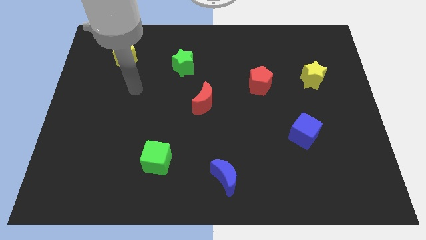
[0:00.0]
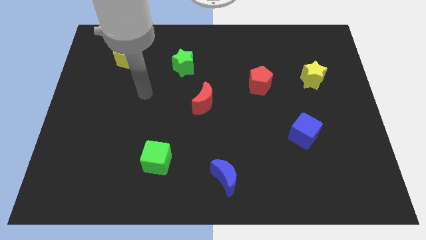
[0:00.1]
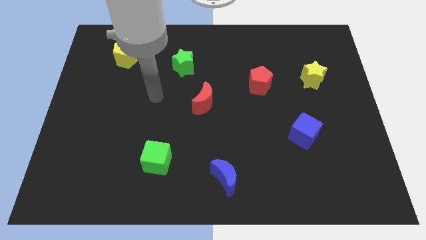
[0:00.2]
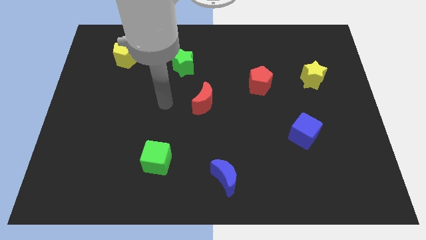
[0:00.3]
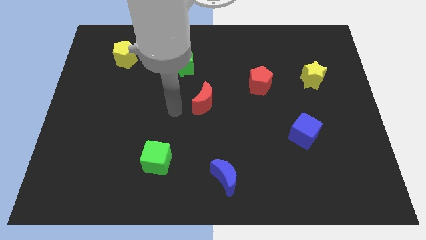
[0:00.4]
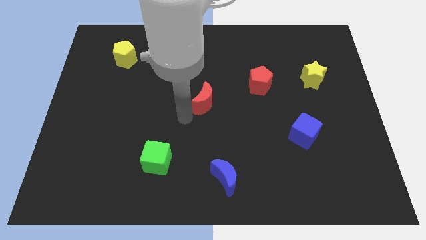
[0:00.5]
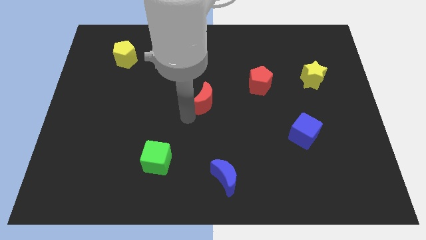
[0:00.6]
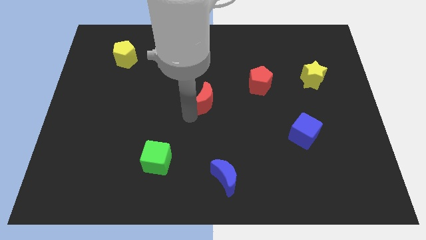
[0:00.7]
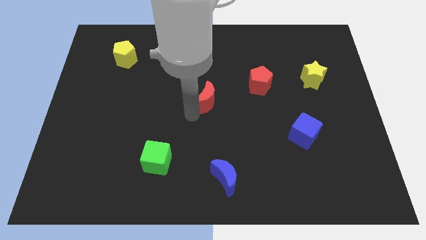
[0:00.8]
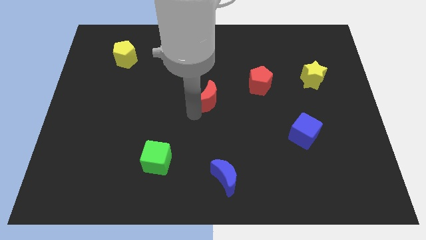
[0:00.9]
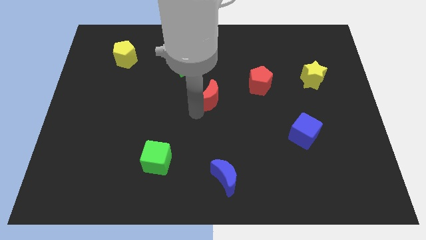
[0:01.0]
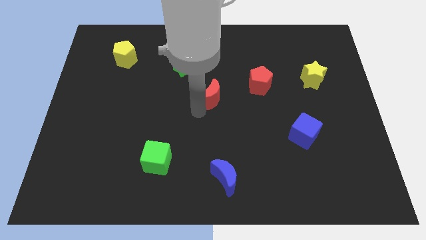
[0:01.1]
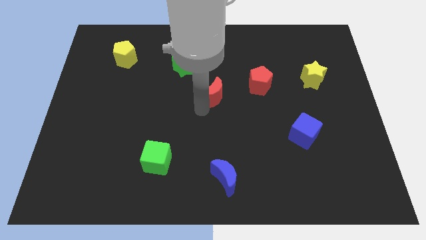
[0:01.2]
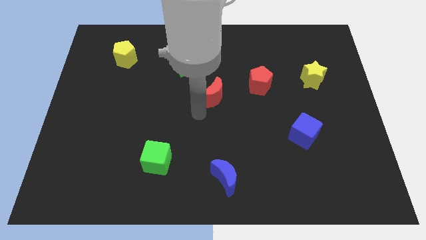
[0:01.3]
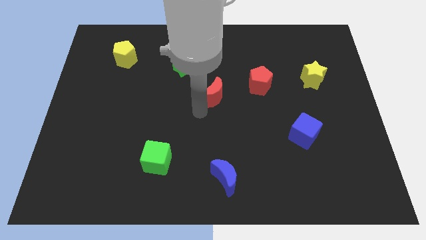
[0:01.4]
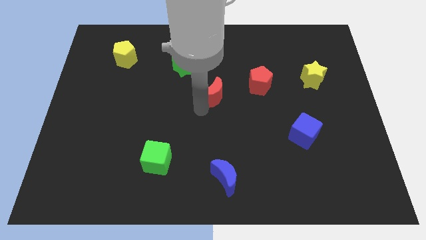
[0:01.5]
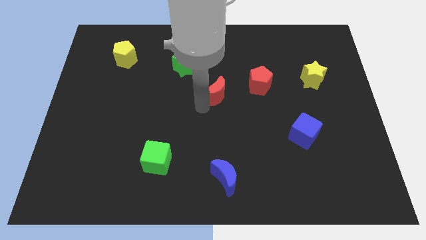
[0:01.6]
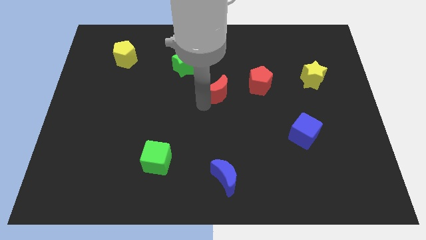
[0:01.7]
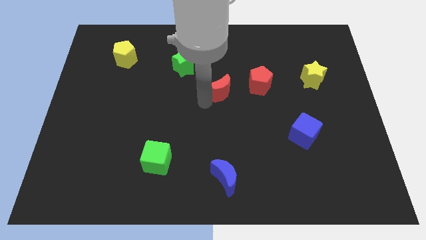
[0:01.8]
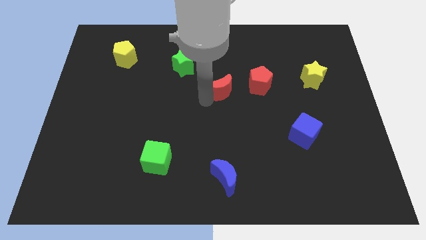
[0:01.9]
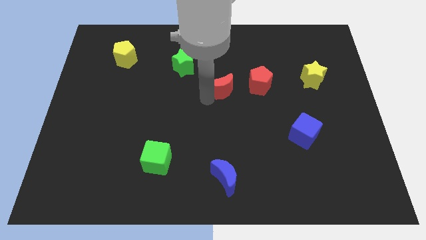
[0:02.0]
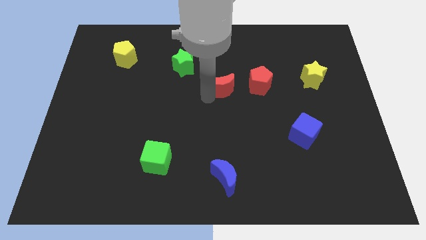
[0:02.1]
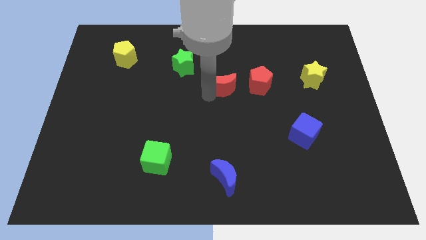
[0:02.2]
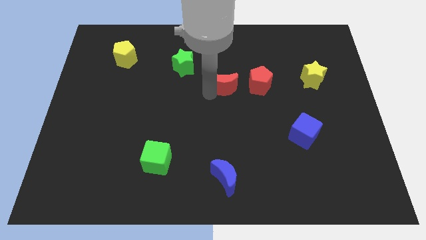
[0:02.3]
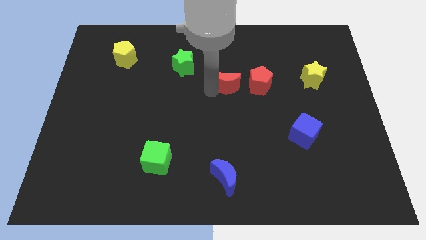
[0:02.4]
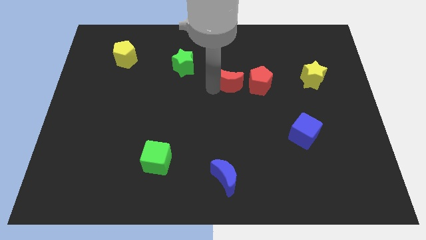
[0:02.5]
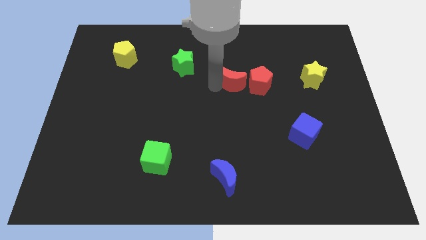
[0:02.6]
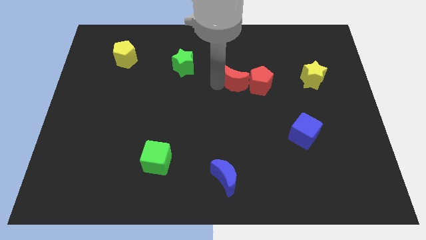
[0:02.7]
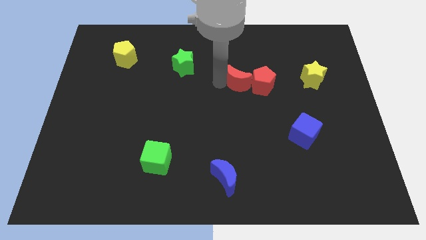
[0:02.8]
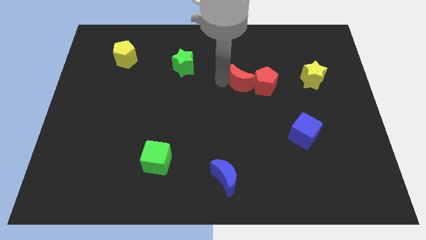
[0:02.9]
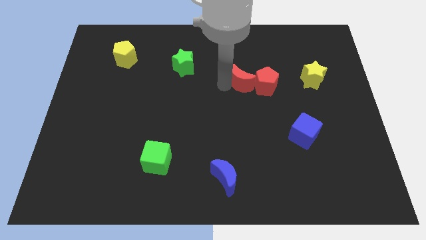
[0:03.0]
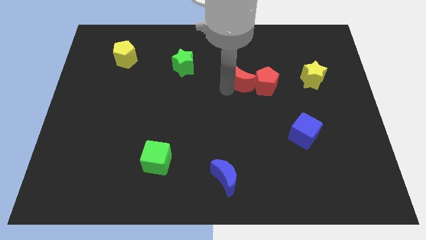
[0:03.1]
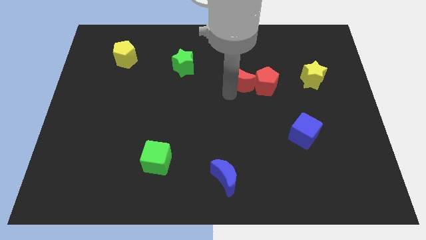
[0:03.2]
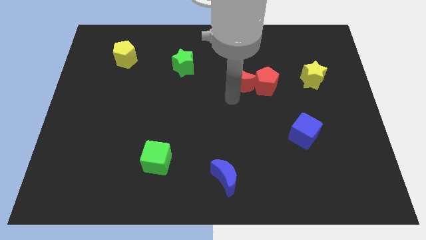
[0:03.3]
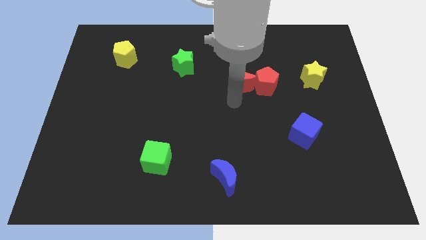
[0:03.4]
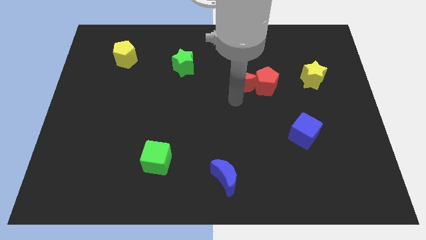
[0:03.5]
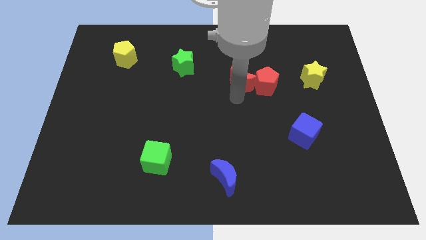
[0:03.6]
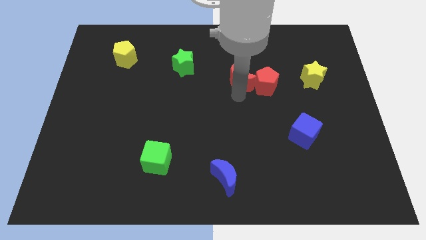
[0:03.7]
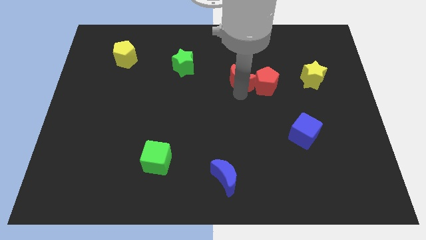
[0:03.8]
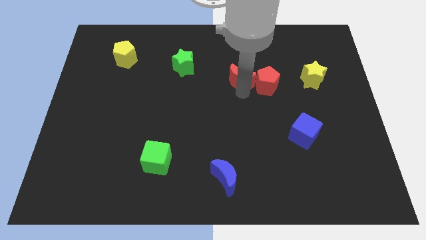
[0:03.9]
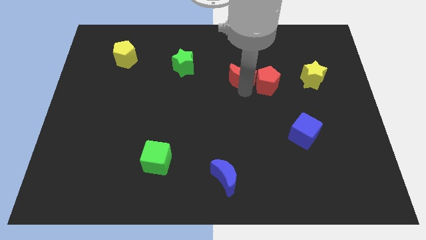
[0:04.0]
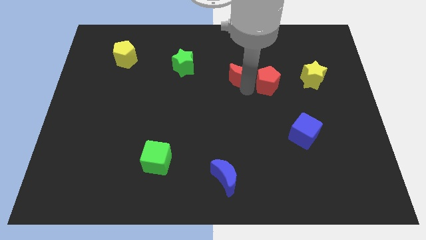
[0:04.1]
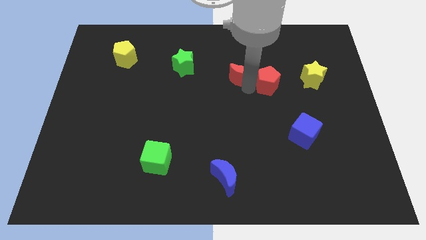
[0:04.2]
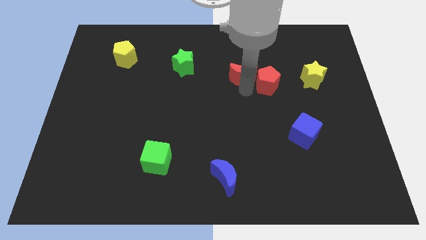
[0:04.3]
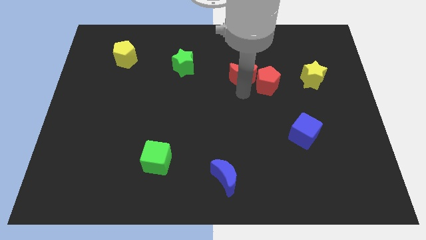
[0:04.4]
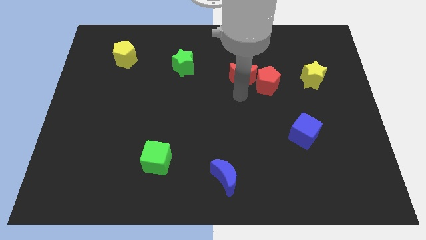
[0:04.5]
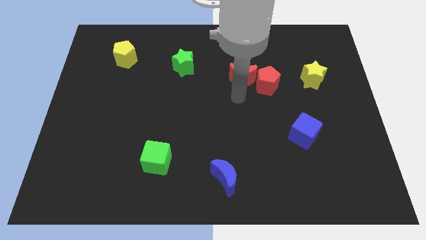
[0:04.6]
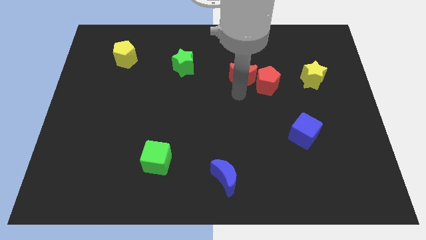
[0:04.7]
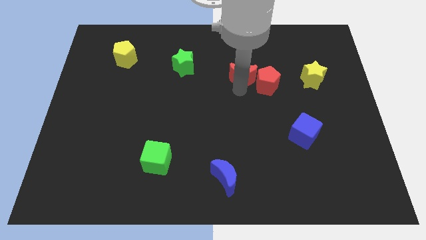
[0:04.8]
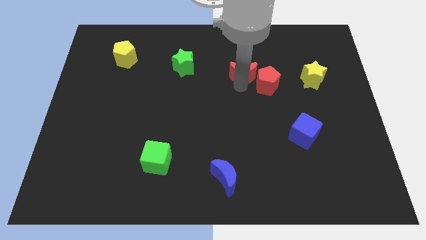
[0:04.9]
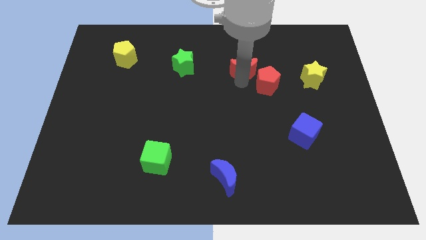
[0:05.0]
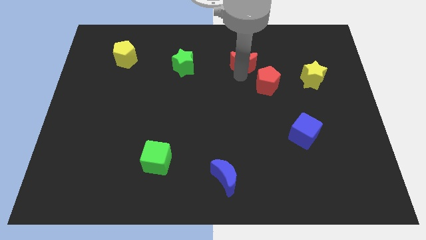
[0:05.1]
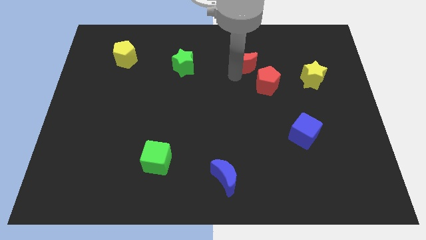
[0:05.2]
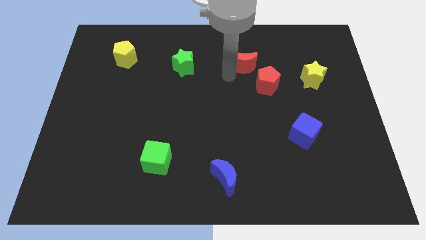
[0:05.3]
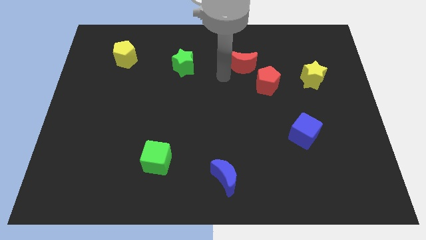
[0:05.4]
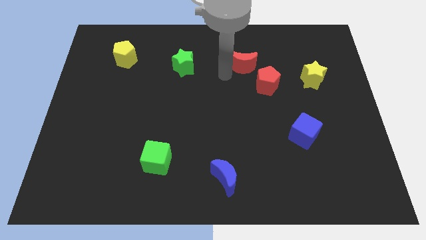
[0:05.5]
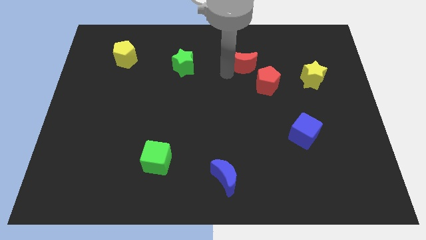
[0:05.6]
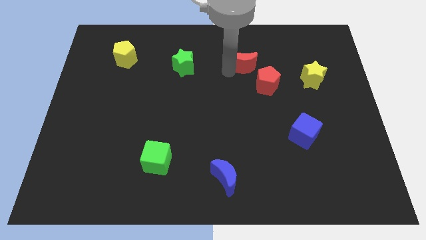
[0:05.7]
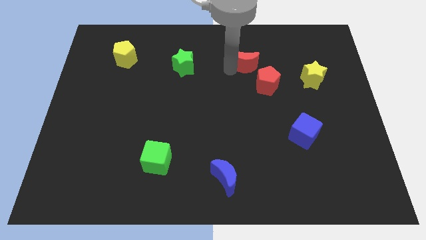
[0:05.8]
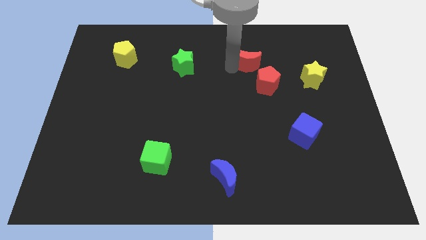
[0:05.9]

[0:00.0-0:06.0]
push the red moon to the top side of the red pentagon

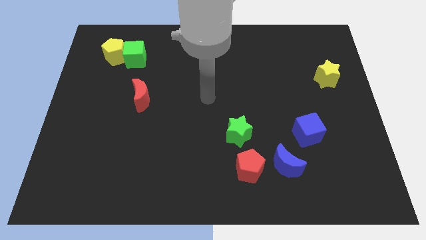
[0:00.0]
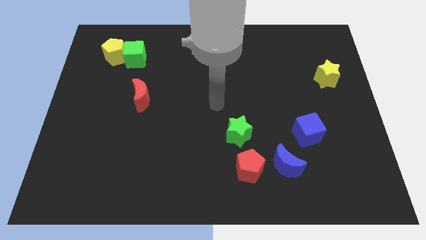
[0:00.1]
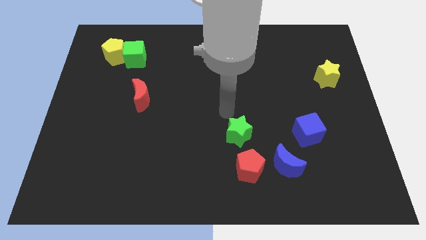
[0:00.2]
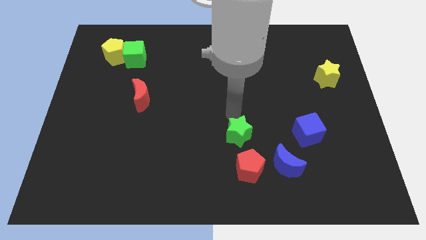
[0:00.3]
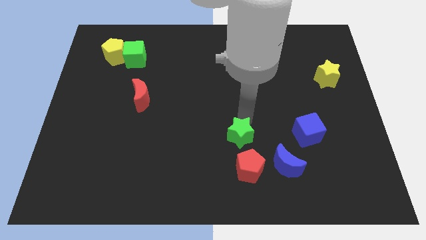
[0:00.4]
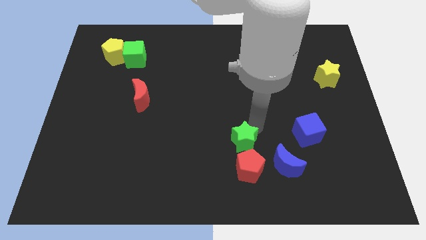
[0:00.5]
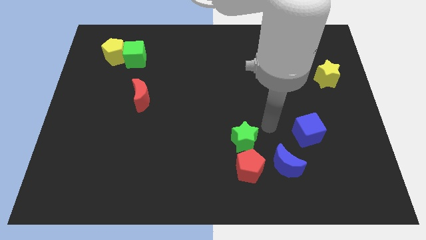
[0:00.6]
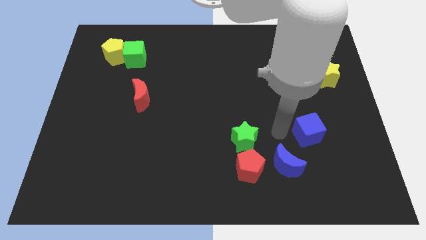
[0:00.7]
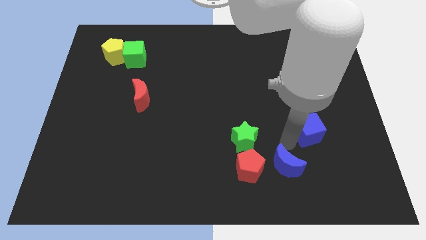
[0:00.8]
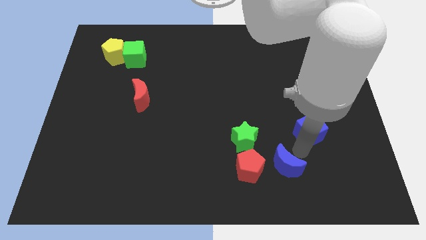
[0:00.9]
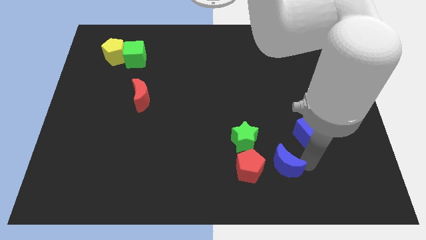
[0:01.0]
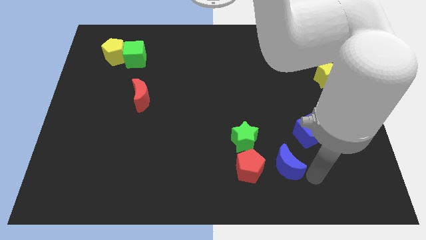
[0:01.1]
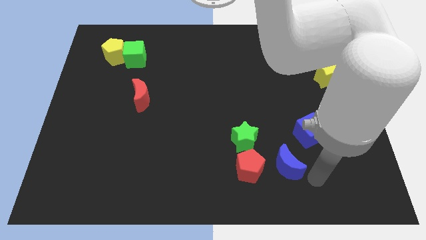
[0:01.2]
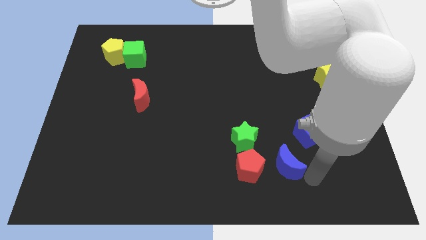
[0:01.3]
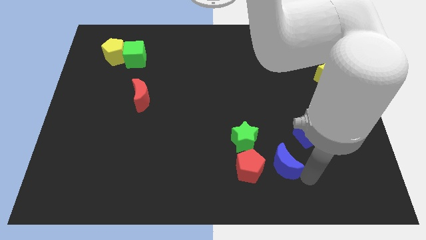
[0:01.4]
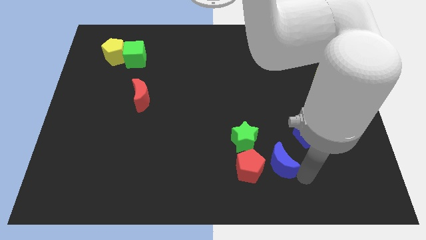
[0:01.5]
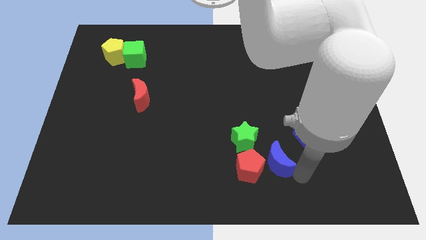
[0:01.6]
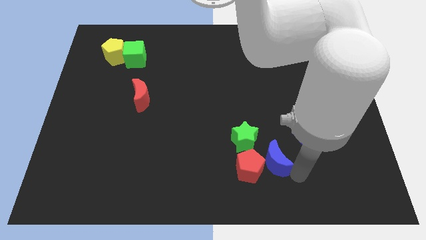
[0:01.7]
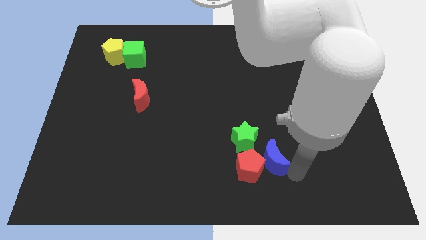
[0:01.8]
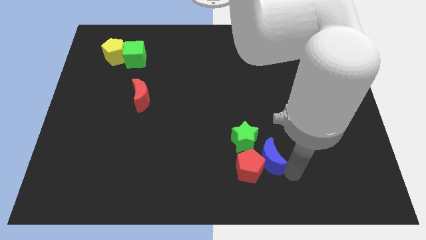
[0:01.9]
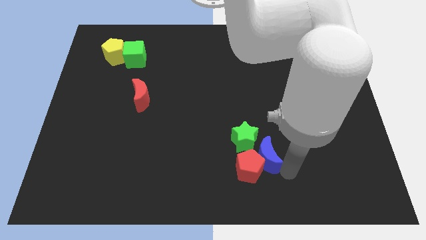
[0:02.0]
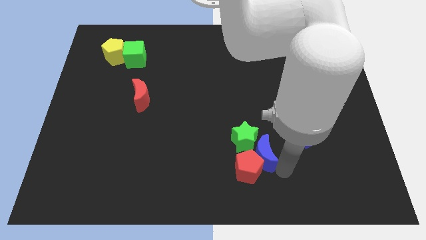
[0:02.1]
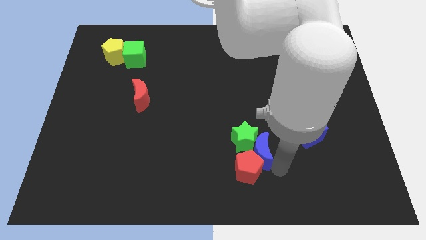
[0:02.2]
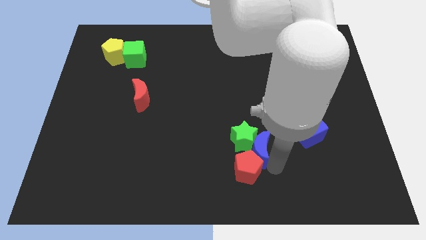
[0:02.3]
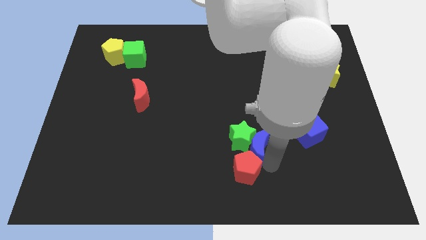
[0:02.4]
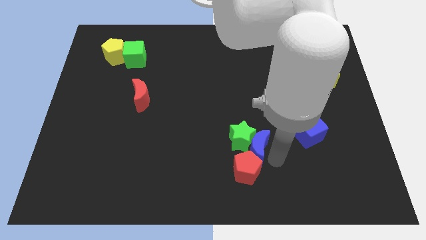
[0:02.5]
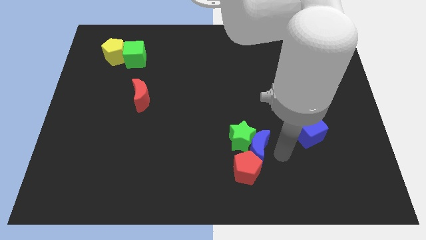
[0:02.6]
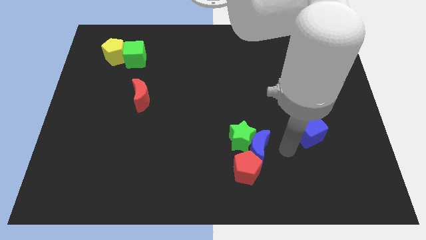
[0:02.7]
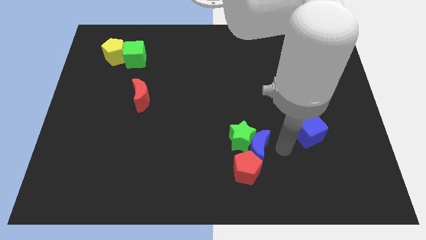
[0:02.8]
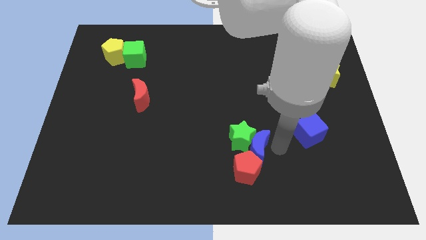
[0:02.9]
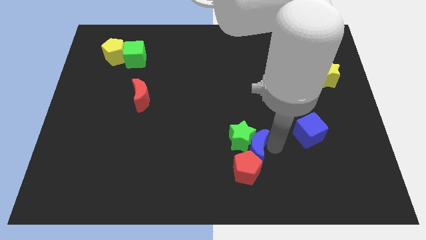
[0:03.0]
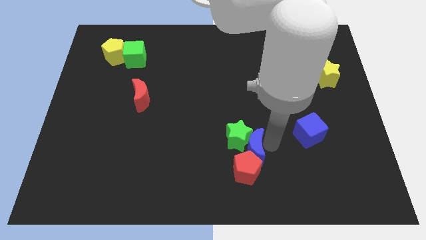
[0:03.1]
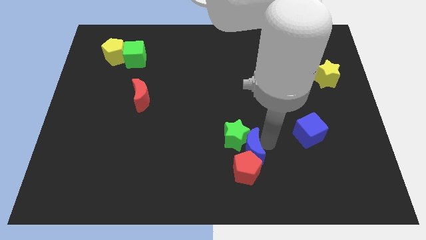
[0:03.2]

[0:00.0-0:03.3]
put the blue moon to the top left of the red pentagon
